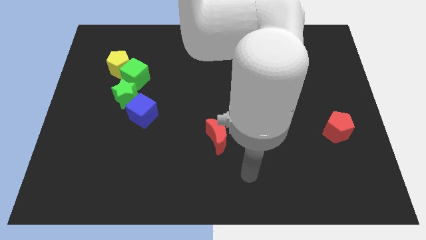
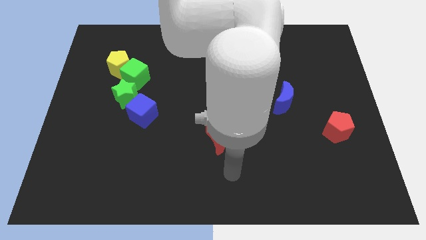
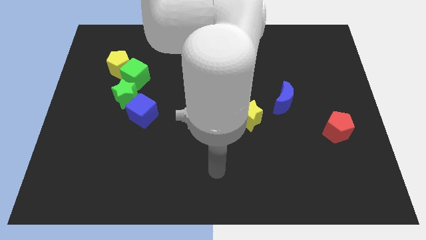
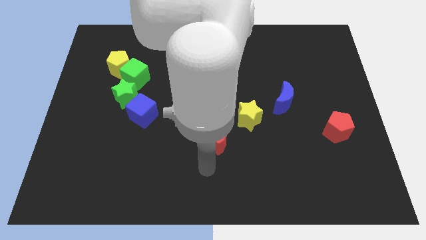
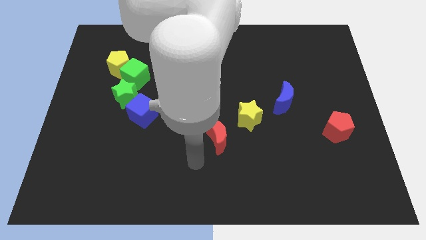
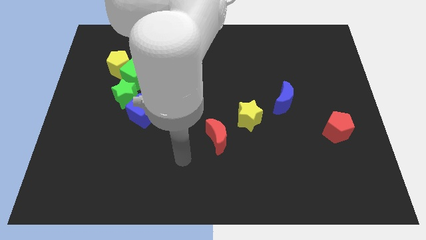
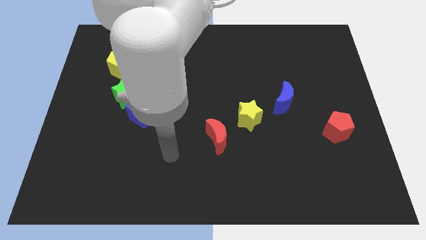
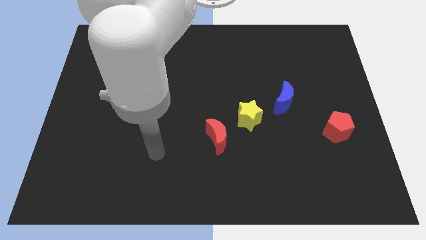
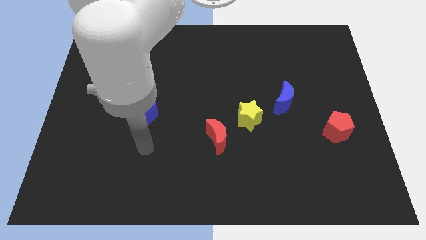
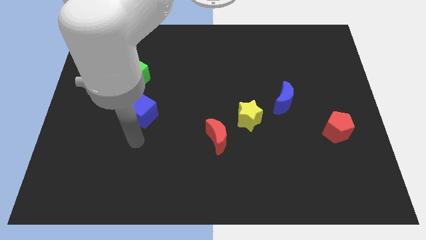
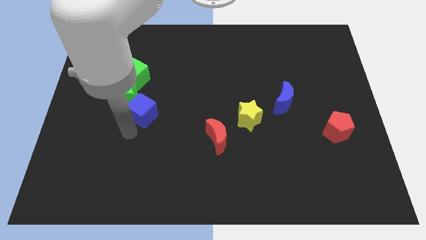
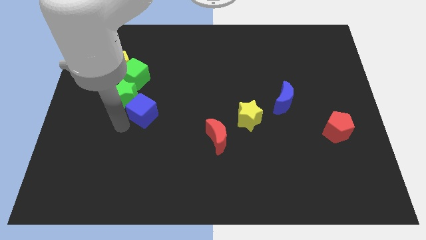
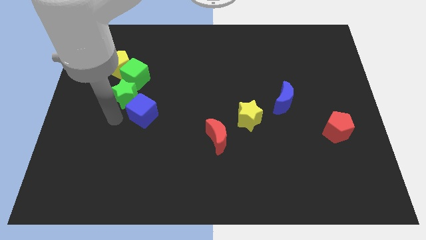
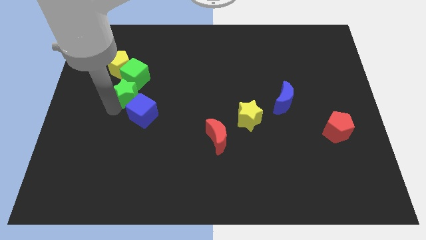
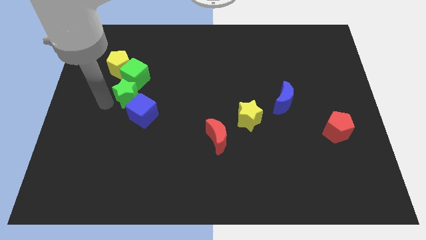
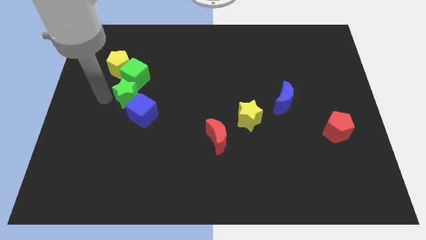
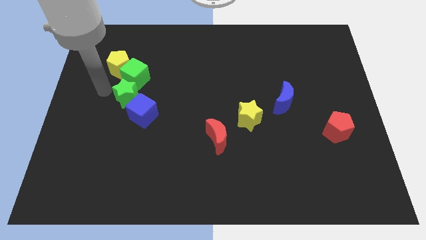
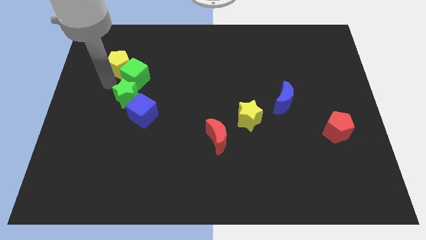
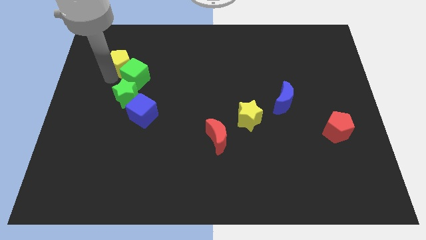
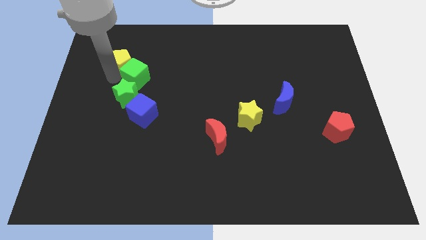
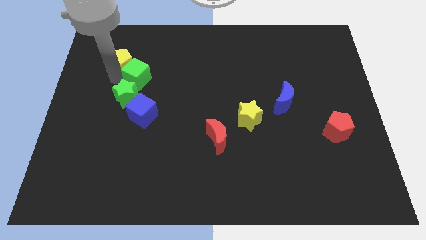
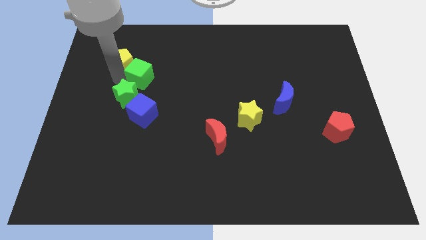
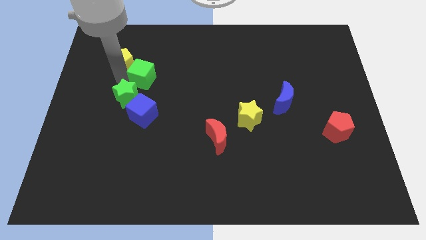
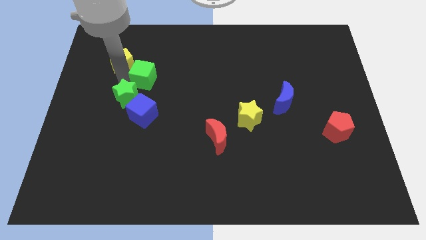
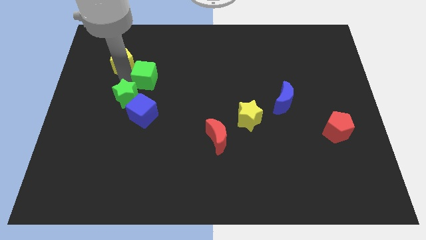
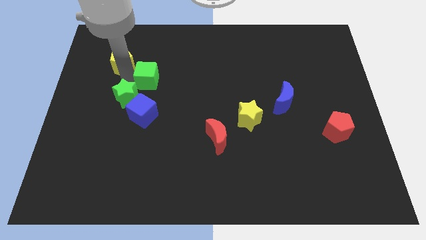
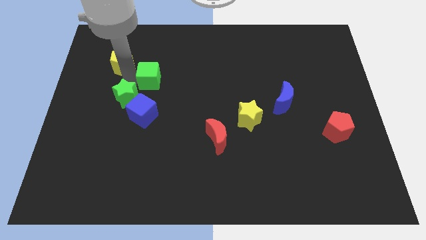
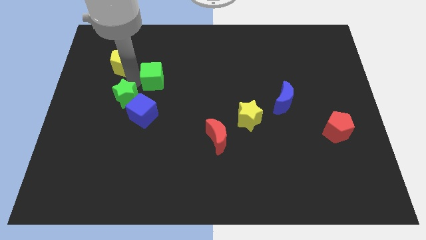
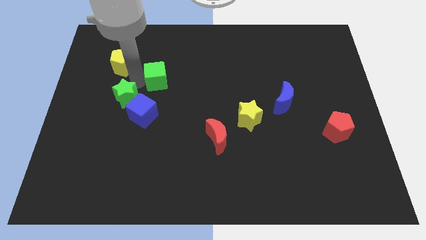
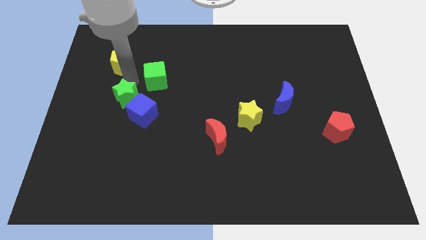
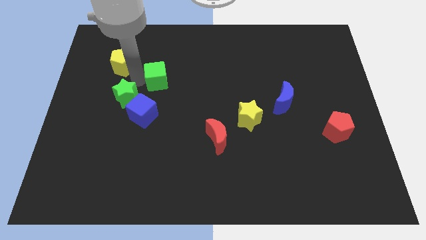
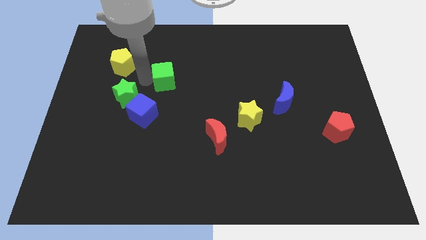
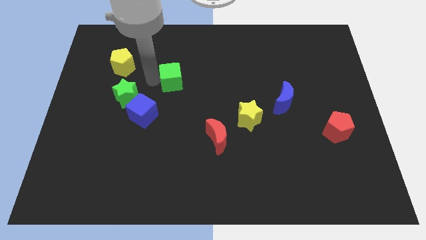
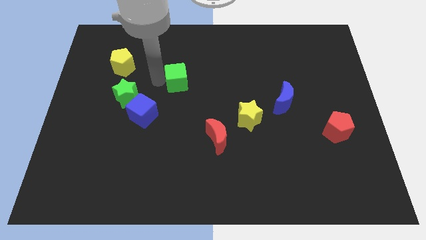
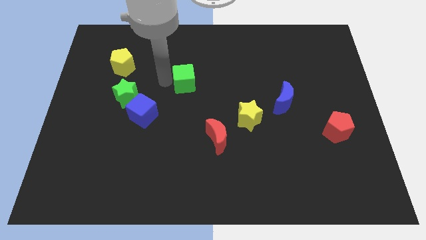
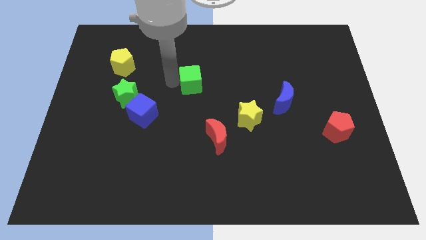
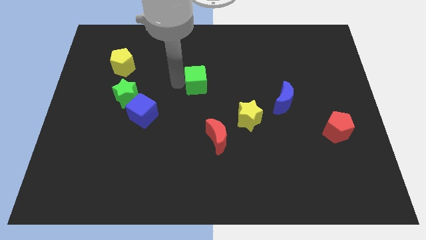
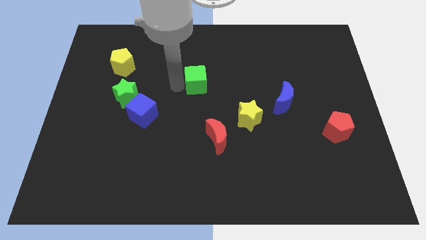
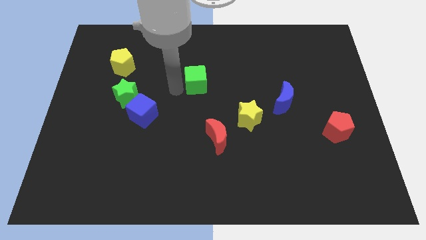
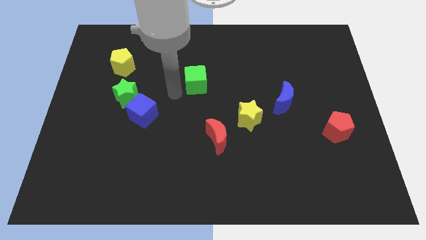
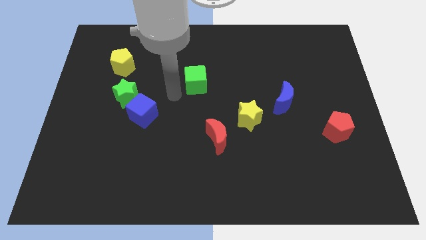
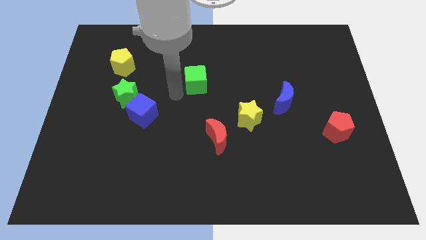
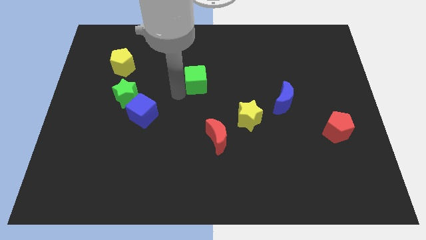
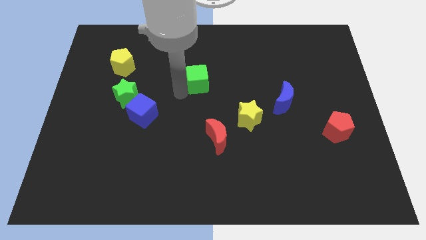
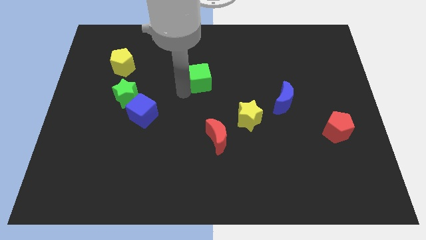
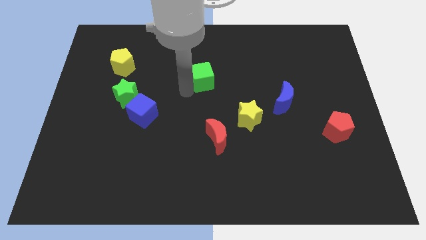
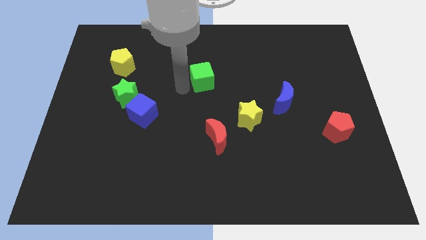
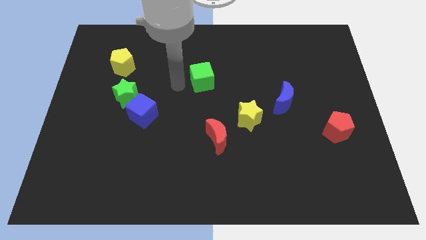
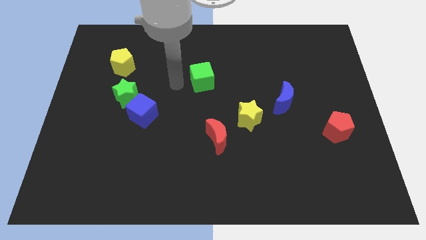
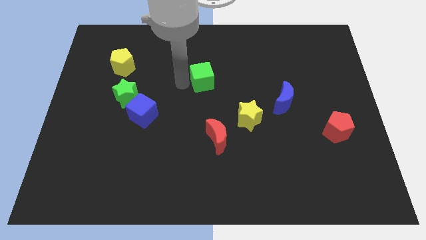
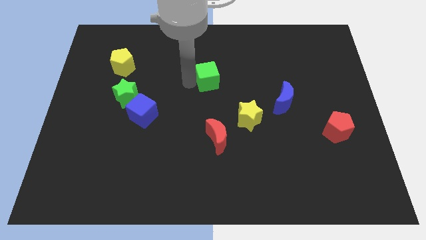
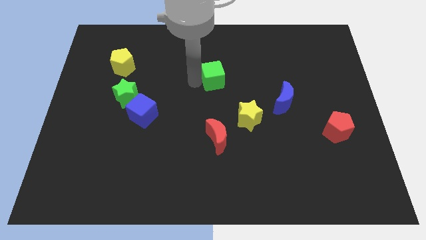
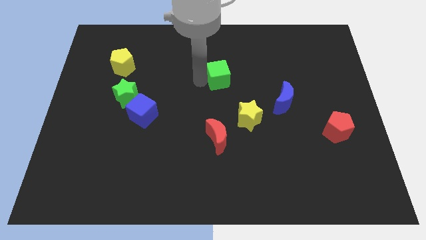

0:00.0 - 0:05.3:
move the green cube to the right

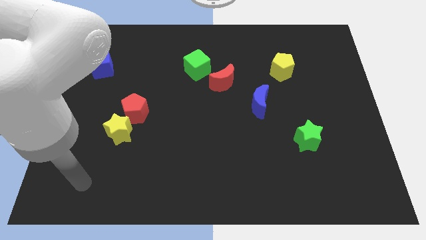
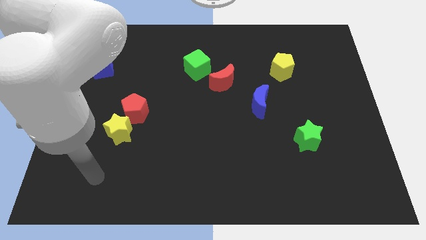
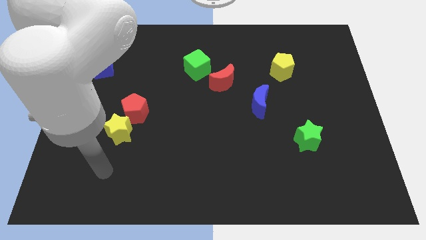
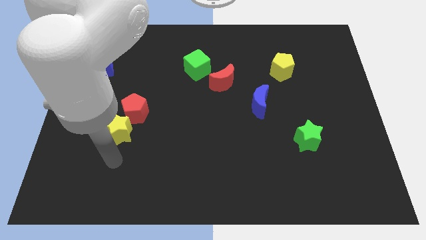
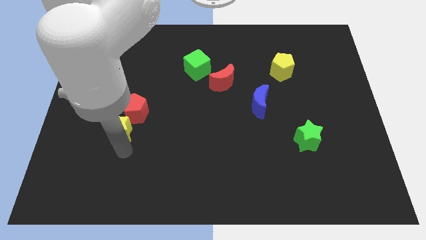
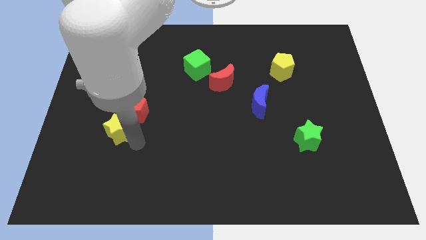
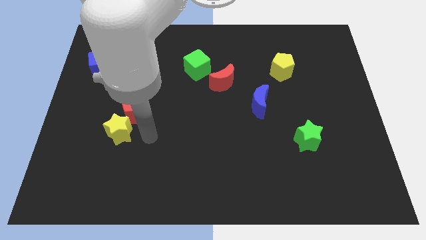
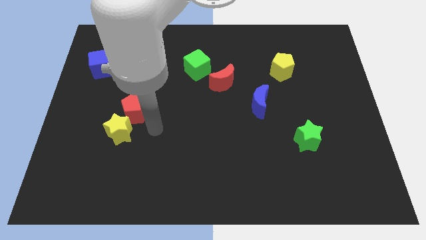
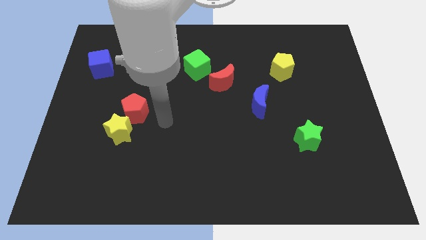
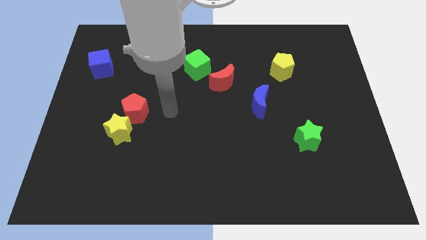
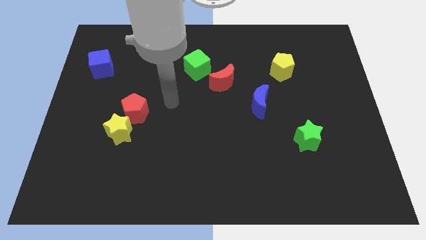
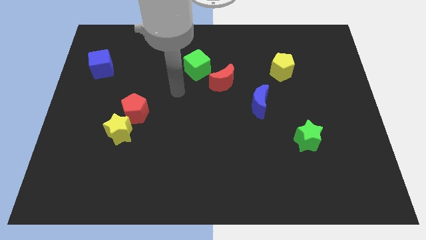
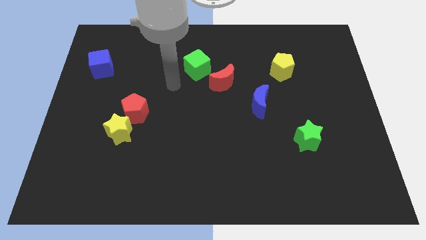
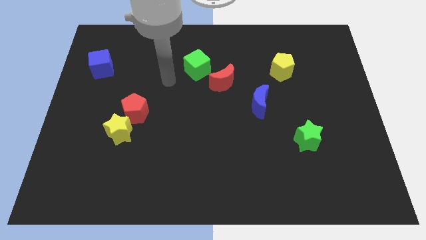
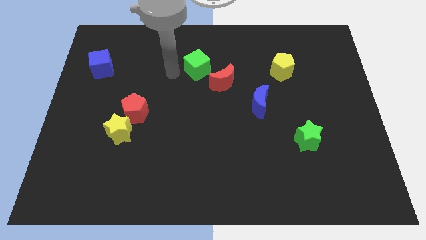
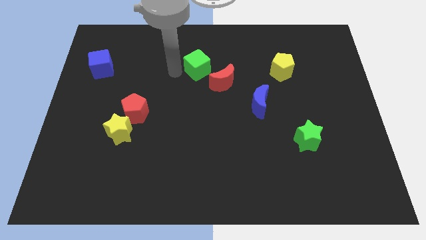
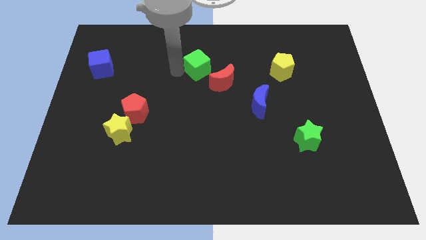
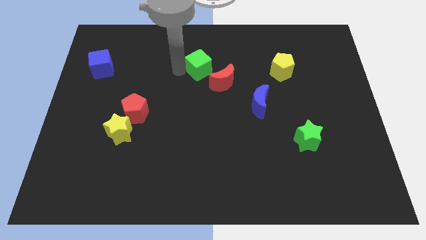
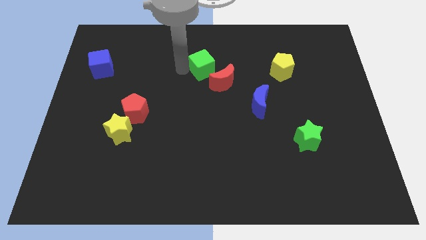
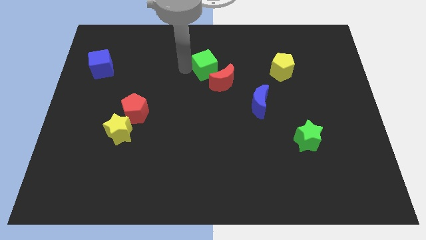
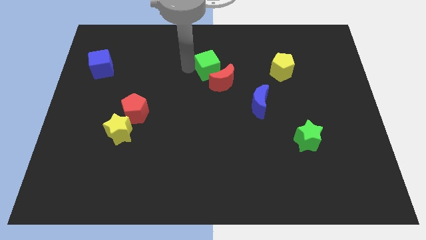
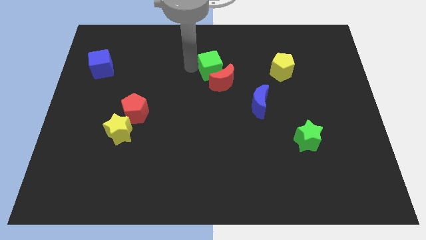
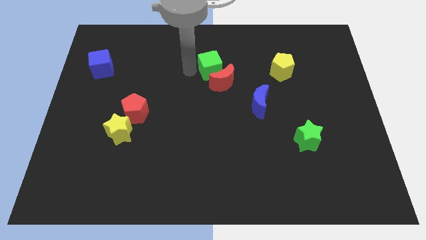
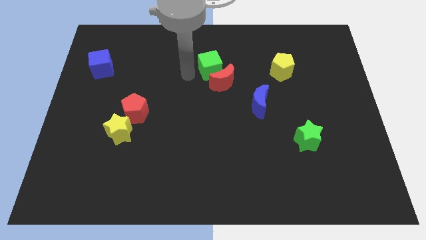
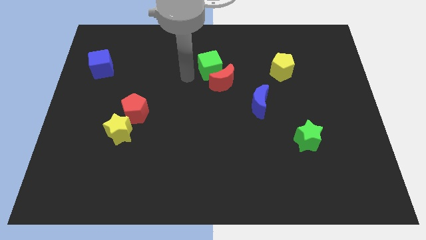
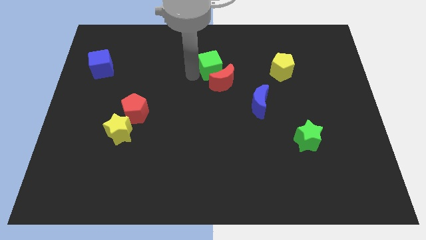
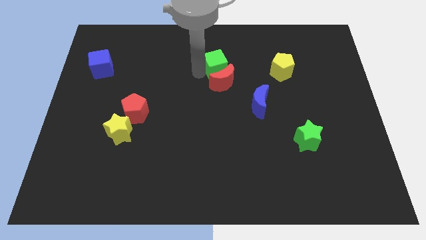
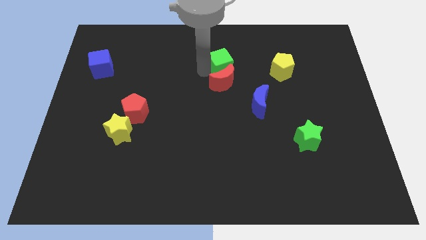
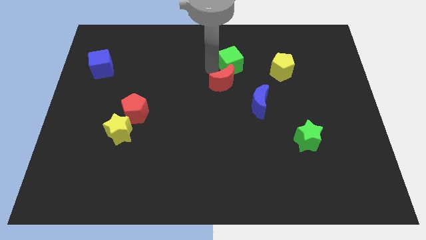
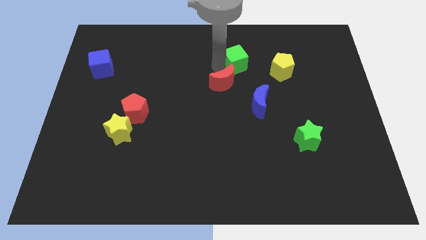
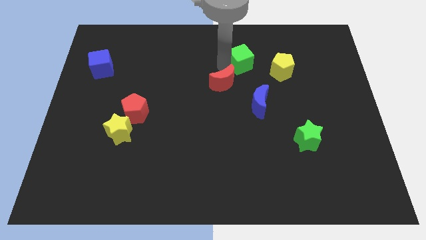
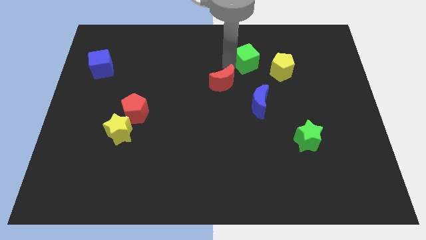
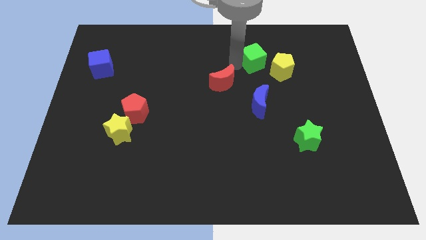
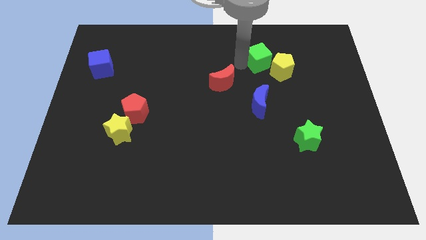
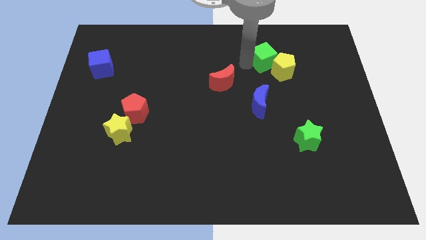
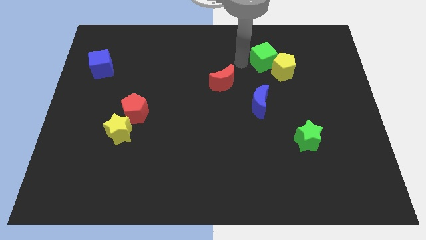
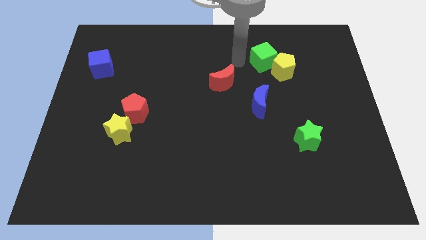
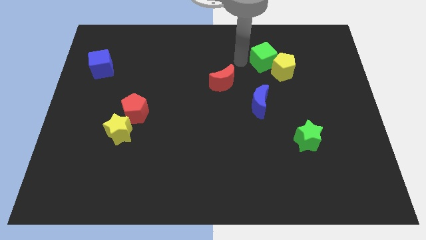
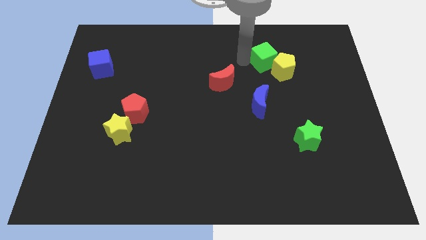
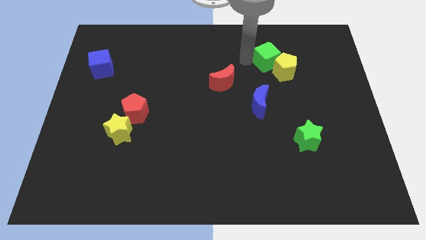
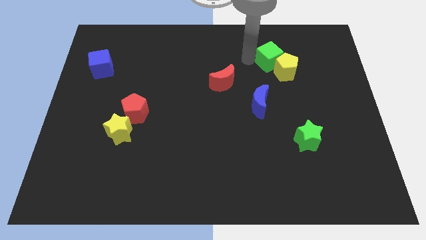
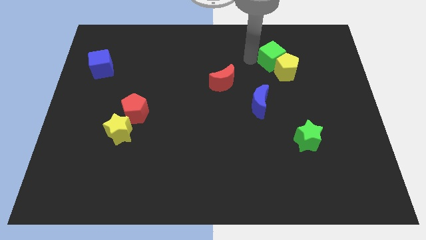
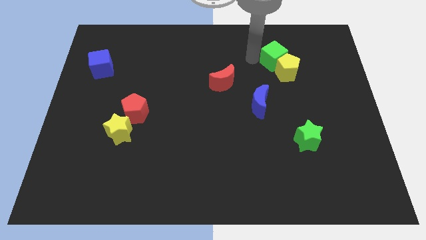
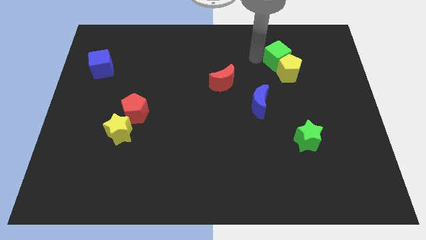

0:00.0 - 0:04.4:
push the green cube right
